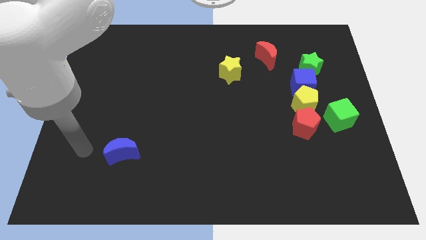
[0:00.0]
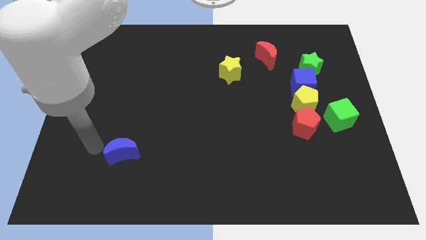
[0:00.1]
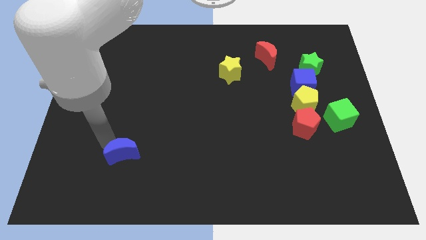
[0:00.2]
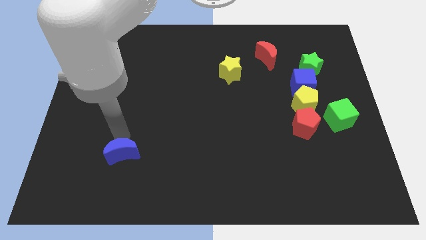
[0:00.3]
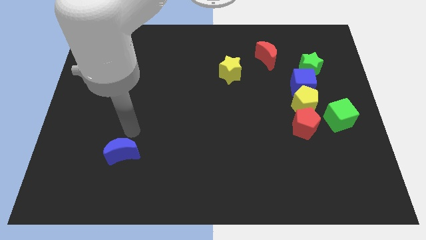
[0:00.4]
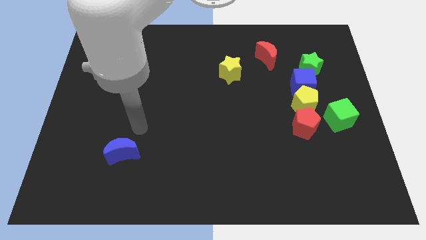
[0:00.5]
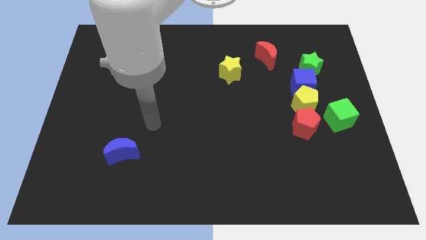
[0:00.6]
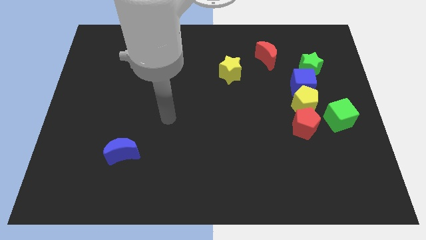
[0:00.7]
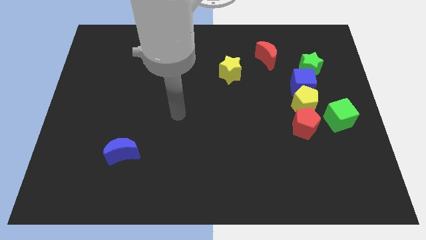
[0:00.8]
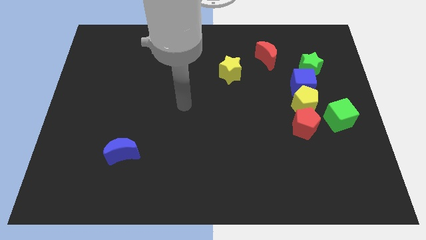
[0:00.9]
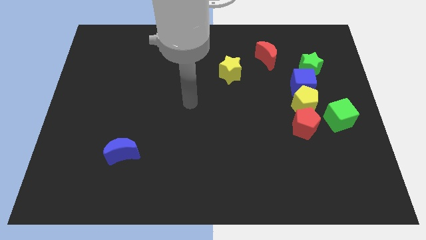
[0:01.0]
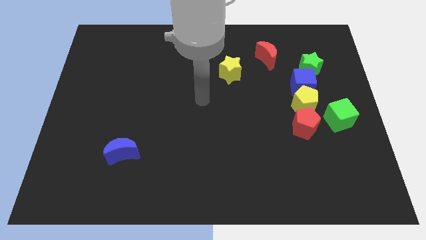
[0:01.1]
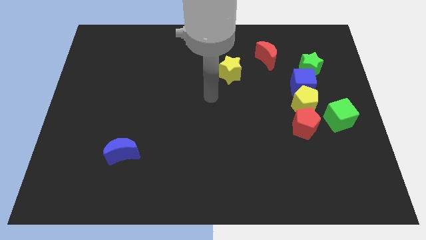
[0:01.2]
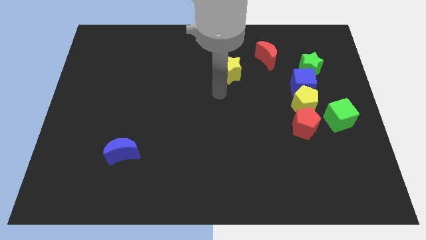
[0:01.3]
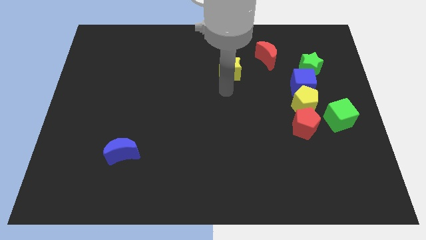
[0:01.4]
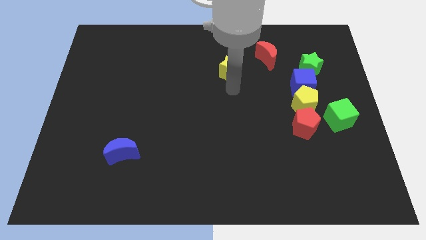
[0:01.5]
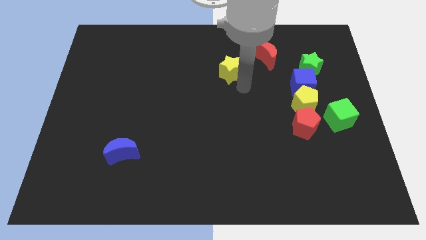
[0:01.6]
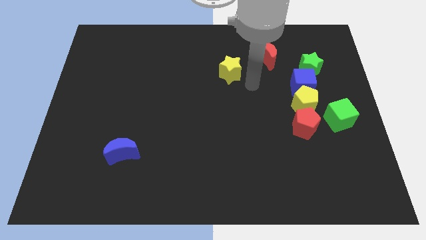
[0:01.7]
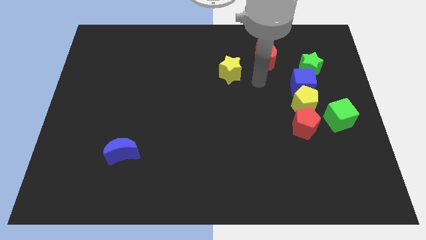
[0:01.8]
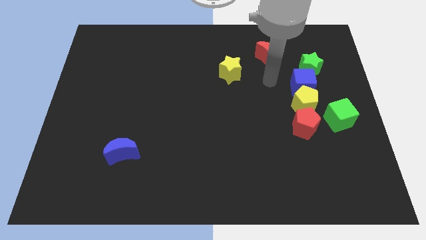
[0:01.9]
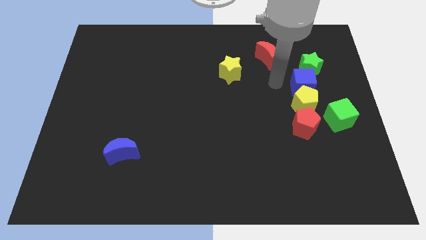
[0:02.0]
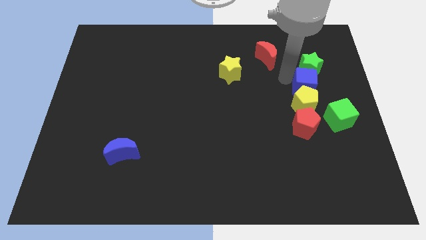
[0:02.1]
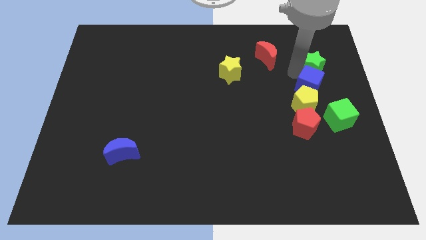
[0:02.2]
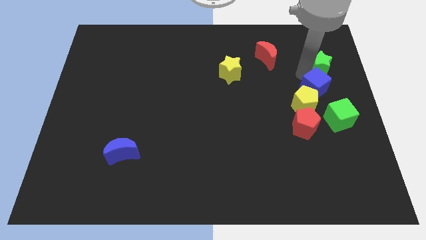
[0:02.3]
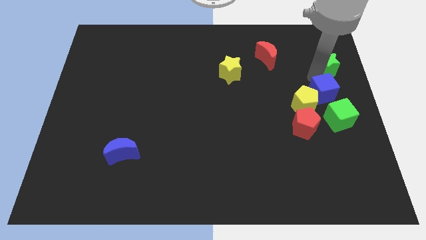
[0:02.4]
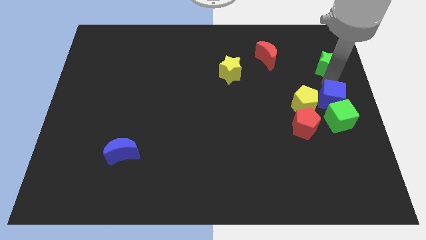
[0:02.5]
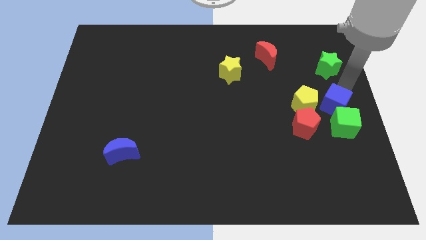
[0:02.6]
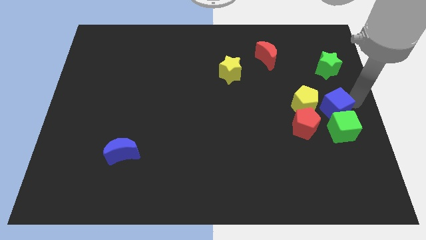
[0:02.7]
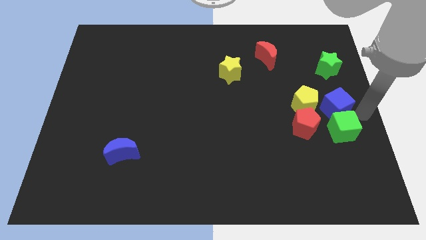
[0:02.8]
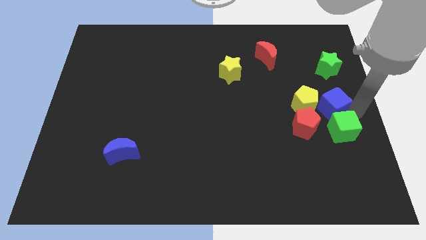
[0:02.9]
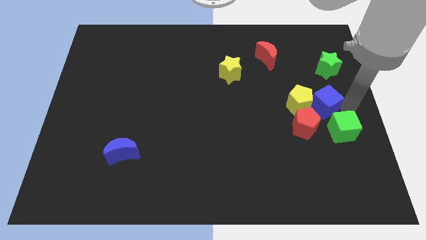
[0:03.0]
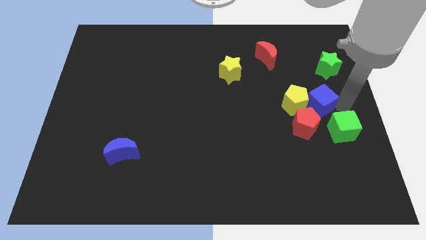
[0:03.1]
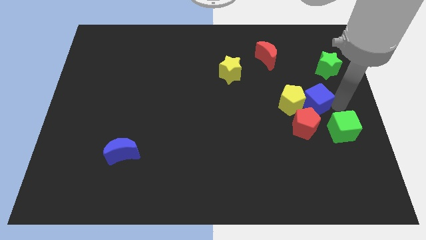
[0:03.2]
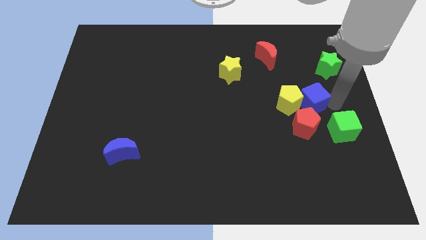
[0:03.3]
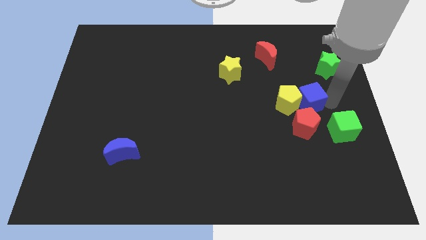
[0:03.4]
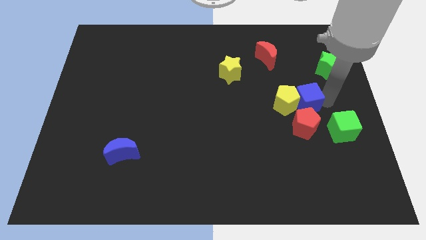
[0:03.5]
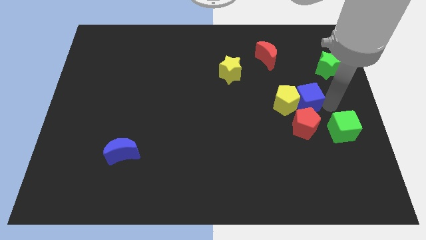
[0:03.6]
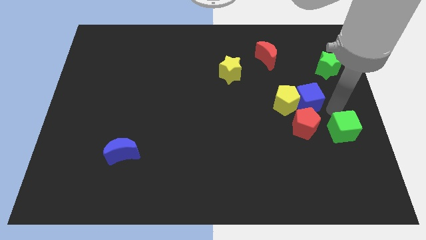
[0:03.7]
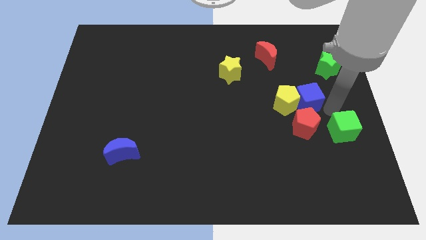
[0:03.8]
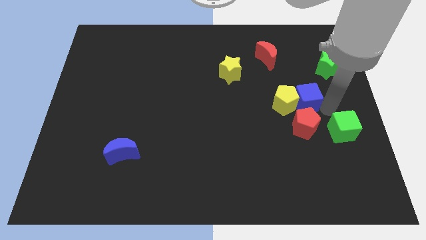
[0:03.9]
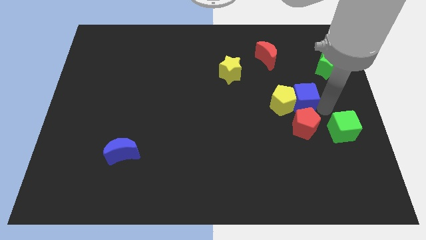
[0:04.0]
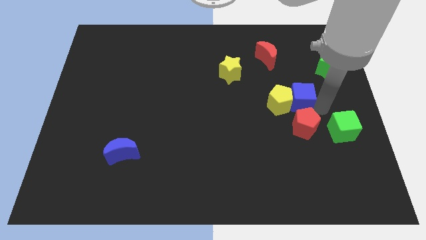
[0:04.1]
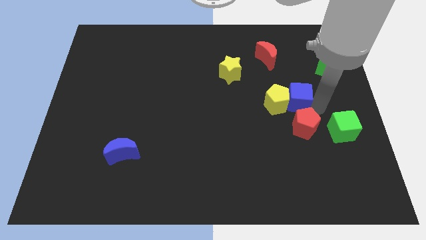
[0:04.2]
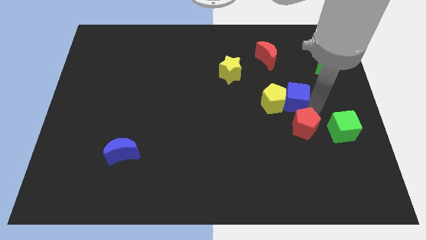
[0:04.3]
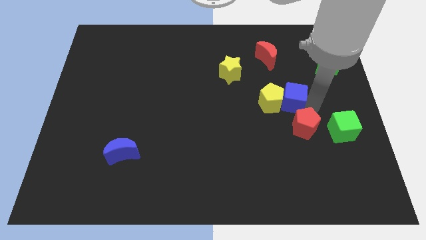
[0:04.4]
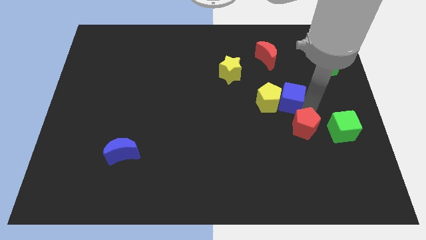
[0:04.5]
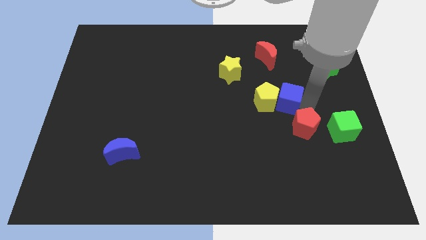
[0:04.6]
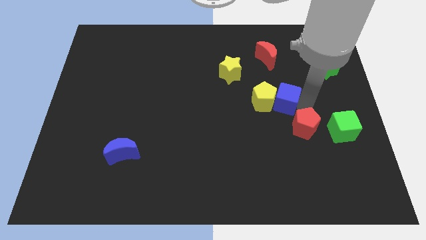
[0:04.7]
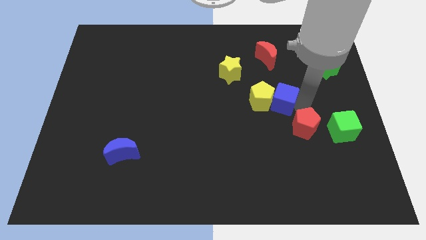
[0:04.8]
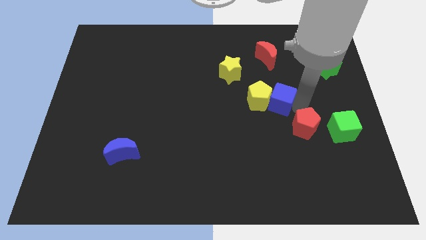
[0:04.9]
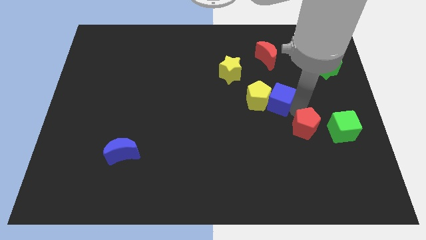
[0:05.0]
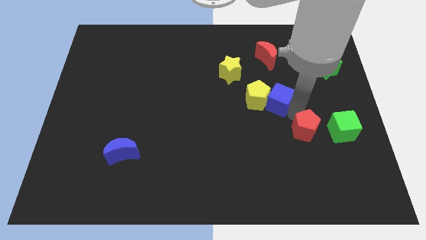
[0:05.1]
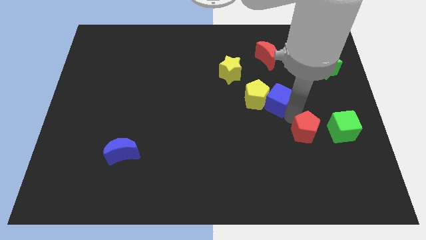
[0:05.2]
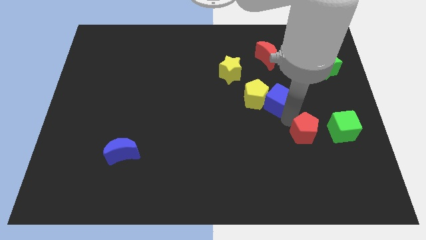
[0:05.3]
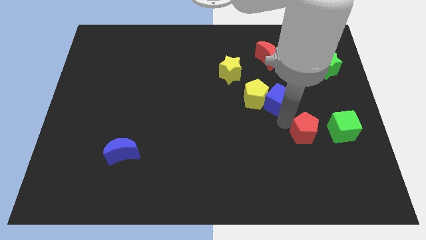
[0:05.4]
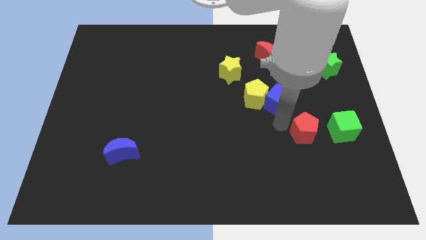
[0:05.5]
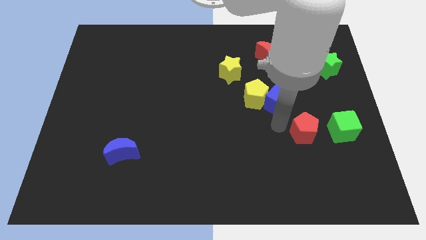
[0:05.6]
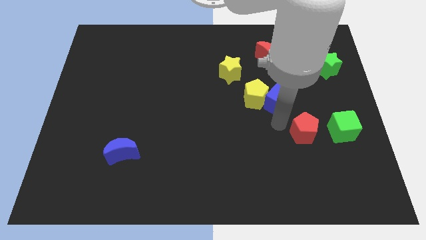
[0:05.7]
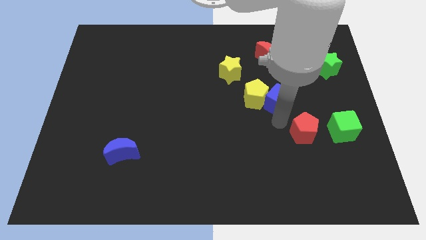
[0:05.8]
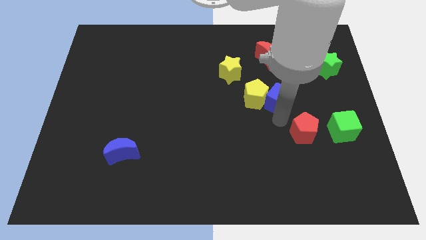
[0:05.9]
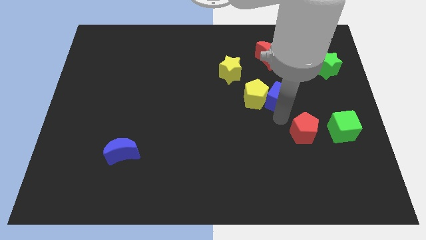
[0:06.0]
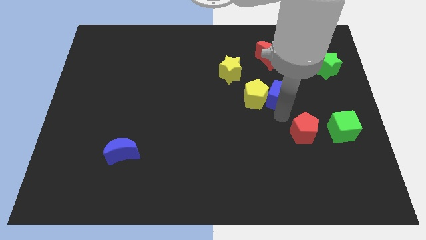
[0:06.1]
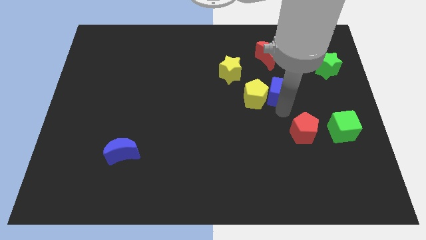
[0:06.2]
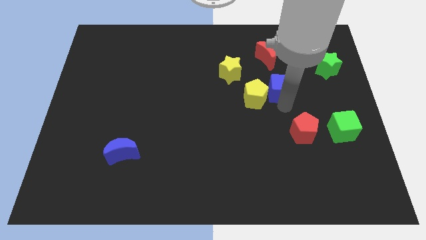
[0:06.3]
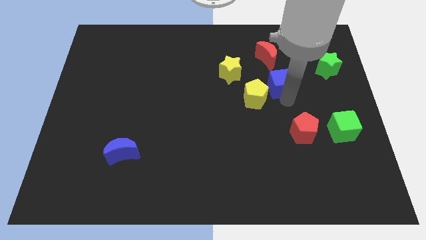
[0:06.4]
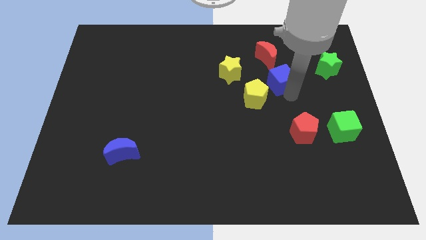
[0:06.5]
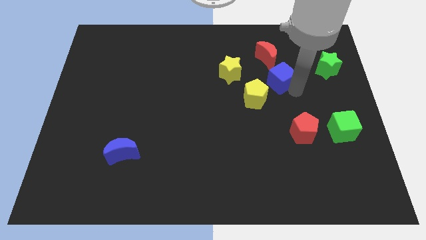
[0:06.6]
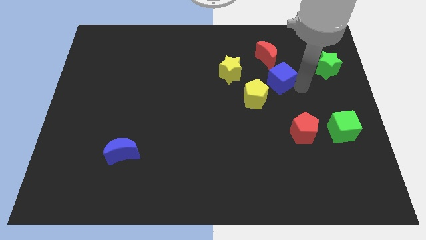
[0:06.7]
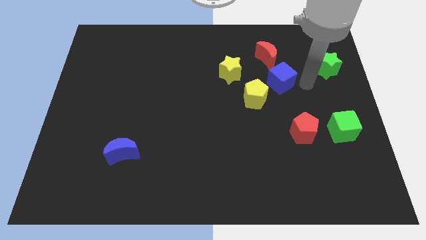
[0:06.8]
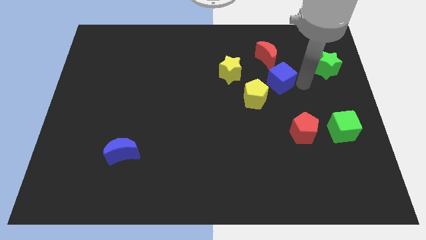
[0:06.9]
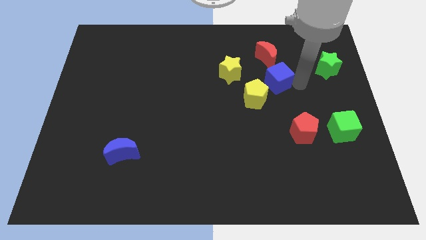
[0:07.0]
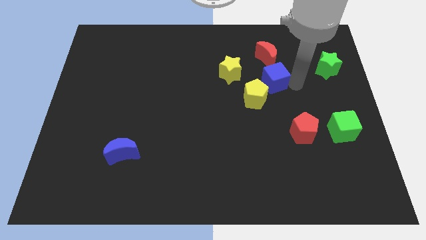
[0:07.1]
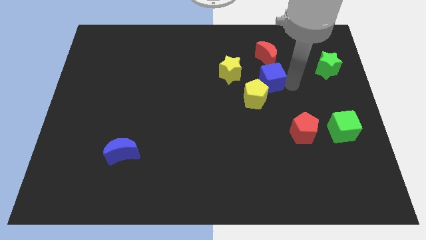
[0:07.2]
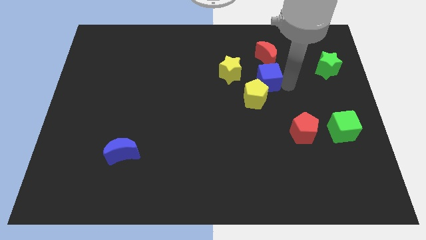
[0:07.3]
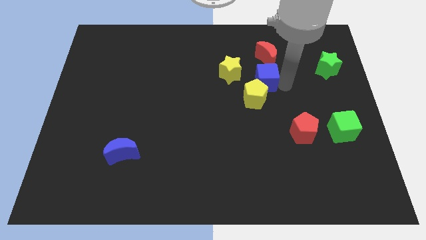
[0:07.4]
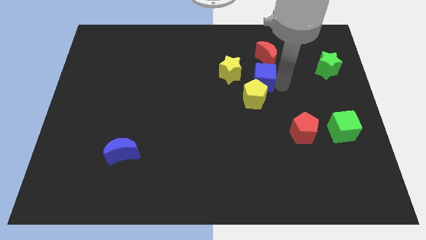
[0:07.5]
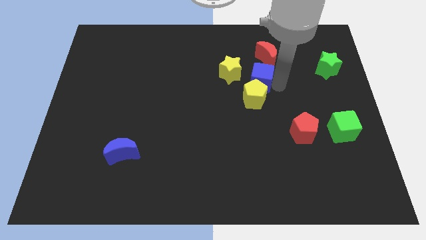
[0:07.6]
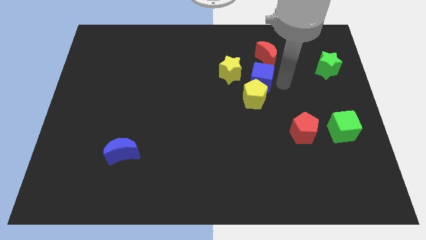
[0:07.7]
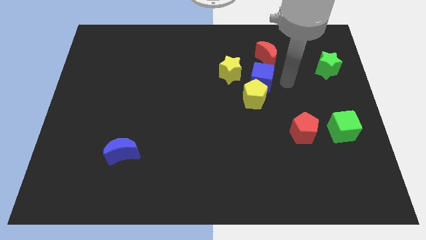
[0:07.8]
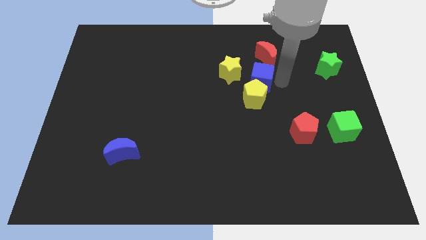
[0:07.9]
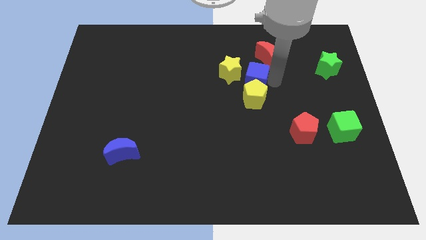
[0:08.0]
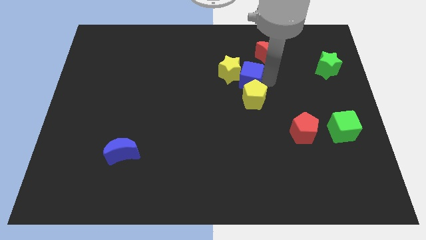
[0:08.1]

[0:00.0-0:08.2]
move the blue cube away from the yellow pentagon and green star

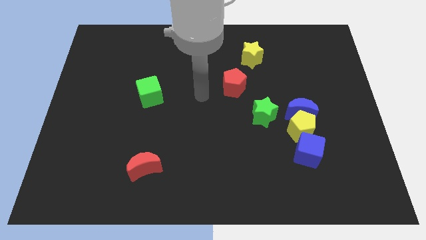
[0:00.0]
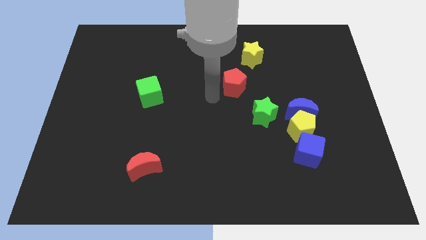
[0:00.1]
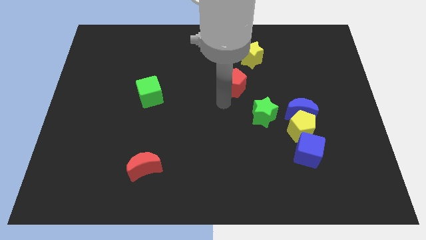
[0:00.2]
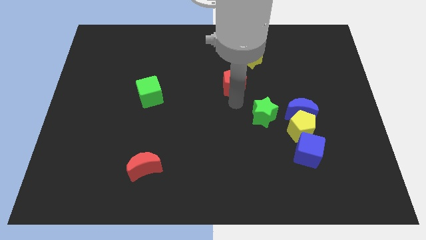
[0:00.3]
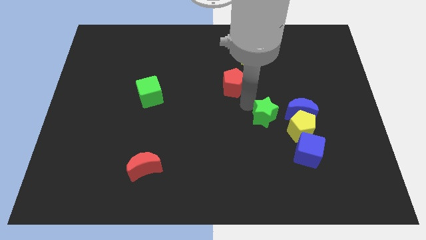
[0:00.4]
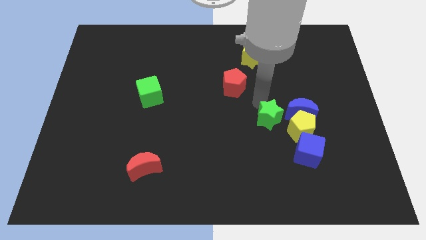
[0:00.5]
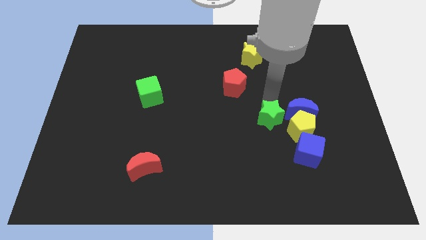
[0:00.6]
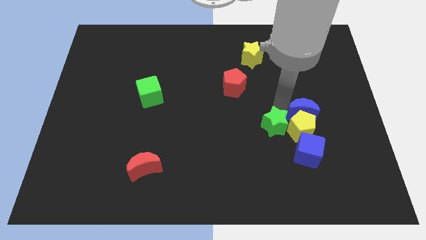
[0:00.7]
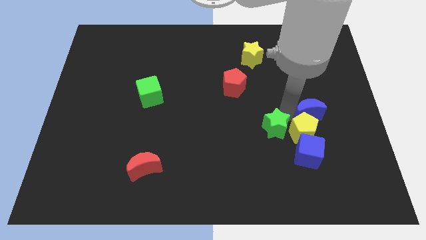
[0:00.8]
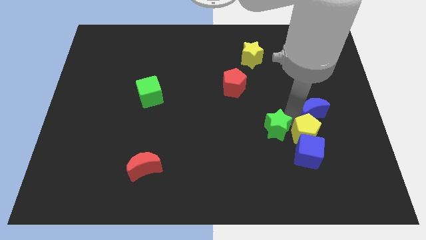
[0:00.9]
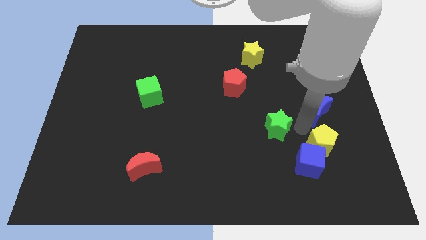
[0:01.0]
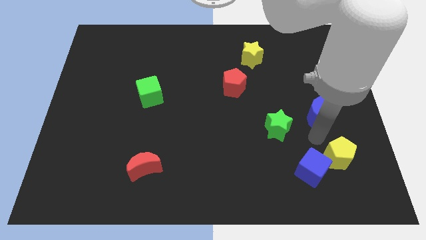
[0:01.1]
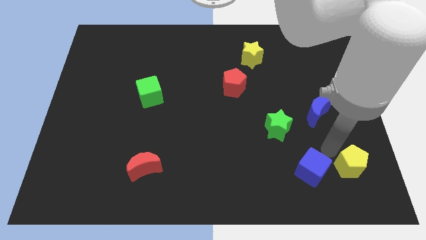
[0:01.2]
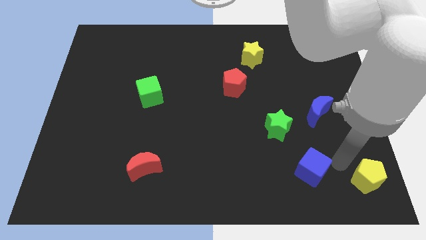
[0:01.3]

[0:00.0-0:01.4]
separate the blue cube from the yellow pentagon
